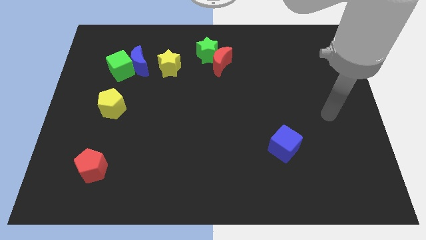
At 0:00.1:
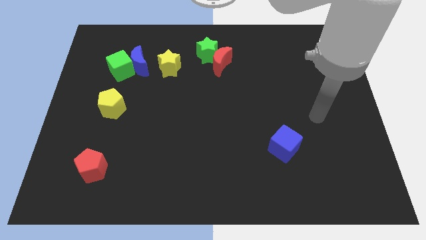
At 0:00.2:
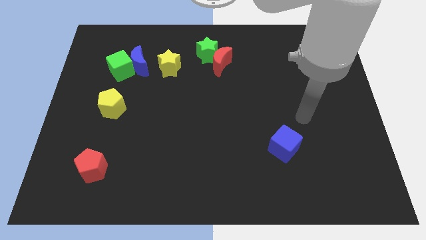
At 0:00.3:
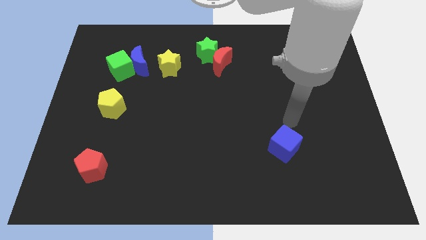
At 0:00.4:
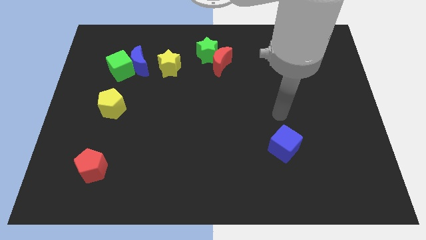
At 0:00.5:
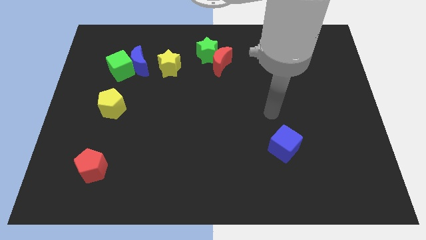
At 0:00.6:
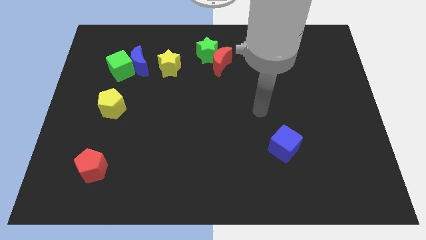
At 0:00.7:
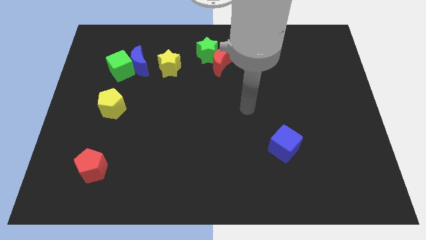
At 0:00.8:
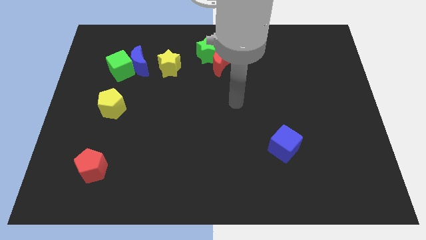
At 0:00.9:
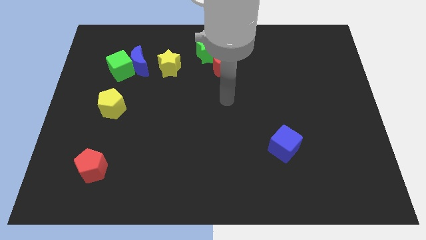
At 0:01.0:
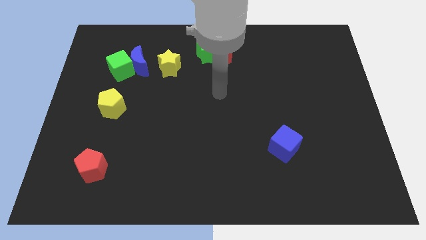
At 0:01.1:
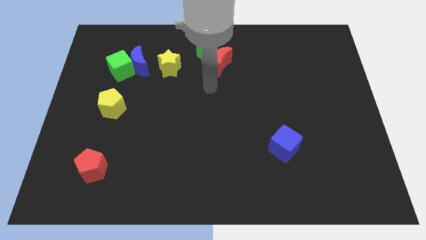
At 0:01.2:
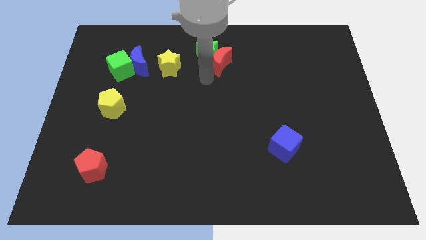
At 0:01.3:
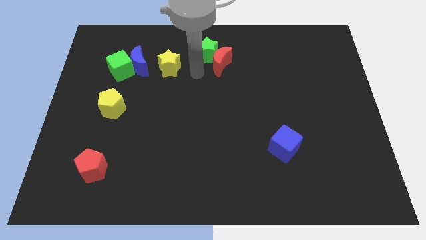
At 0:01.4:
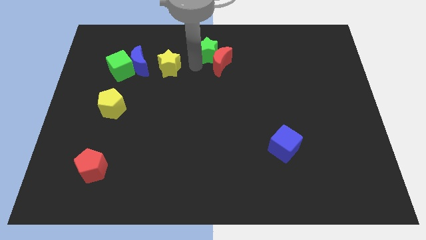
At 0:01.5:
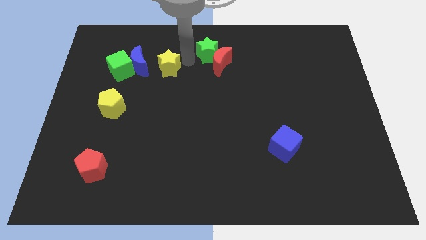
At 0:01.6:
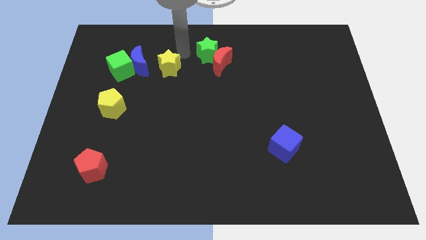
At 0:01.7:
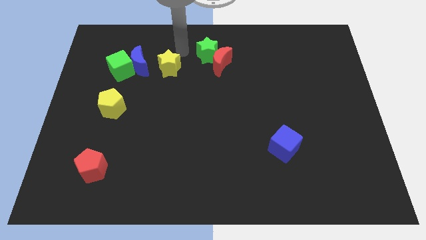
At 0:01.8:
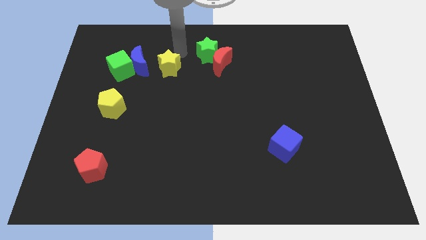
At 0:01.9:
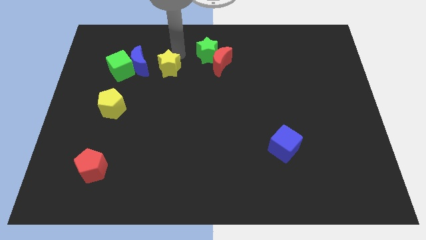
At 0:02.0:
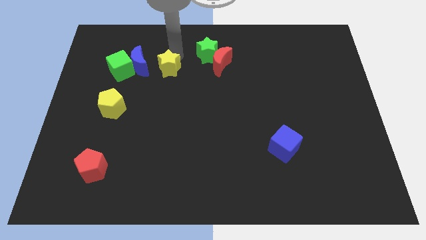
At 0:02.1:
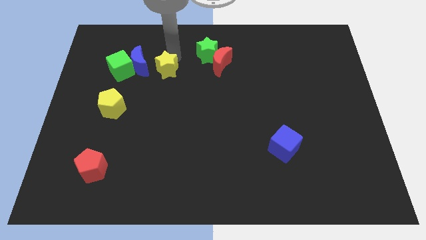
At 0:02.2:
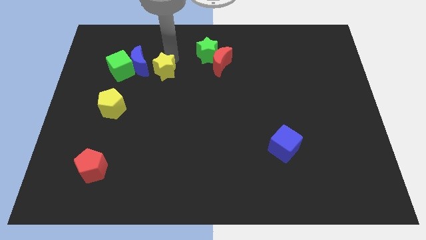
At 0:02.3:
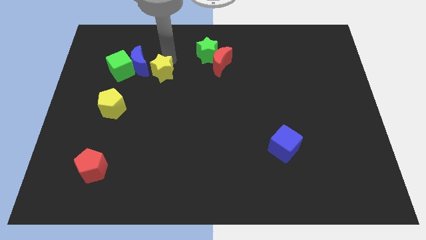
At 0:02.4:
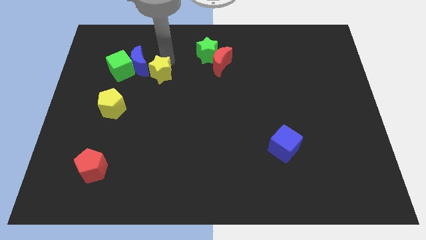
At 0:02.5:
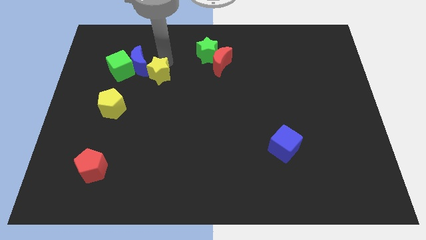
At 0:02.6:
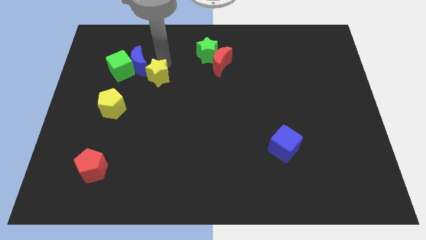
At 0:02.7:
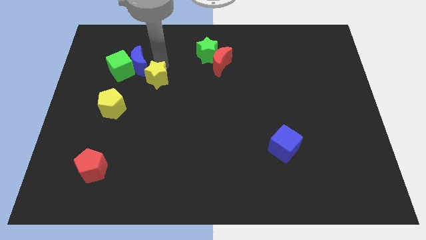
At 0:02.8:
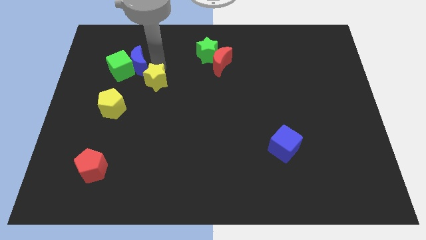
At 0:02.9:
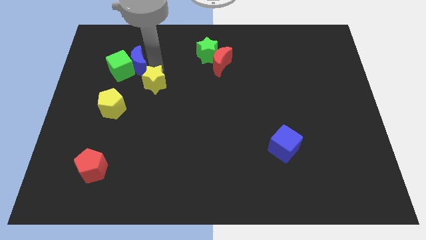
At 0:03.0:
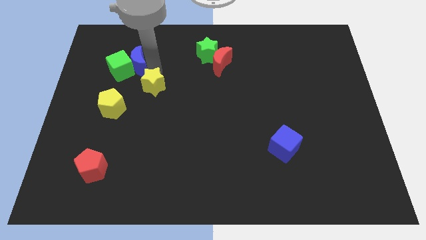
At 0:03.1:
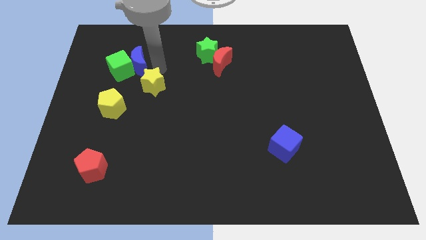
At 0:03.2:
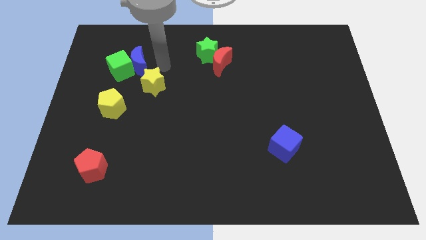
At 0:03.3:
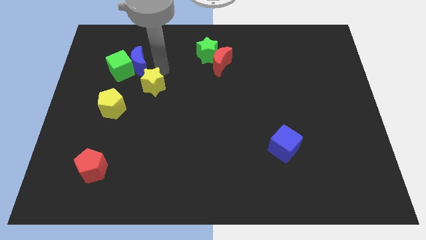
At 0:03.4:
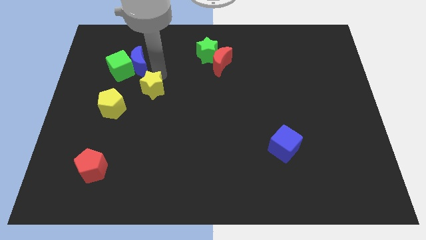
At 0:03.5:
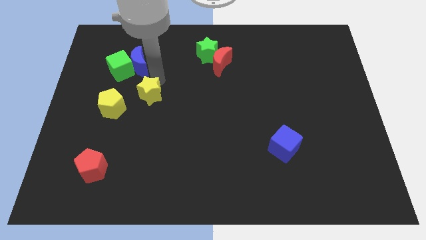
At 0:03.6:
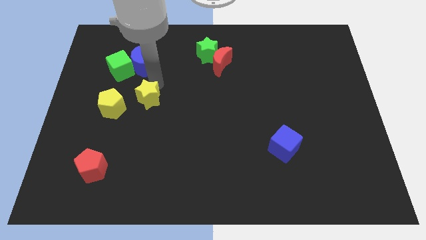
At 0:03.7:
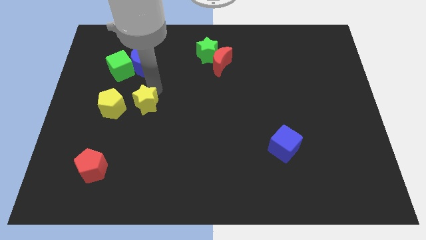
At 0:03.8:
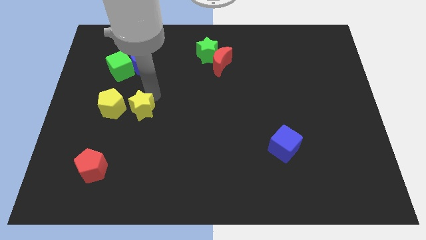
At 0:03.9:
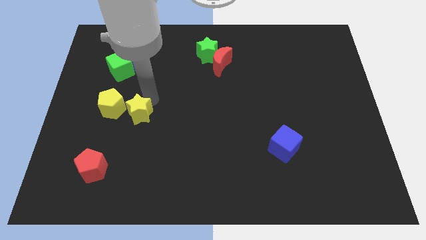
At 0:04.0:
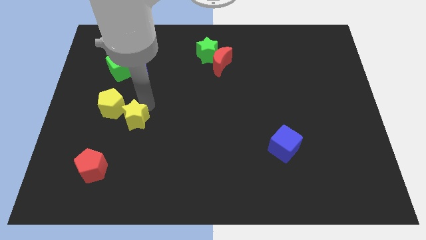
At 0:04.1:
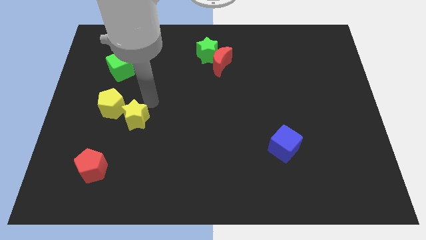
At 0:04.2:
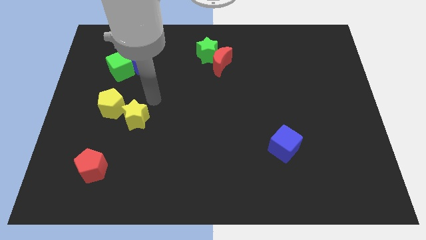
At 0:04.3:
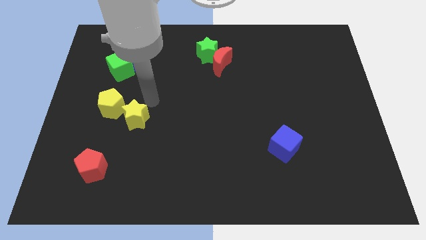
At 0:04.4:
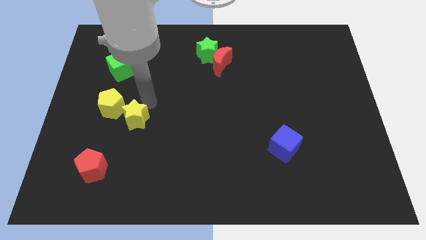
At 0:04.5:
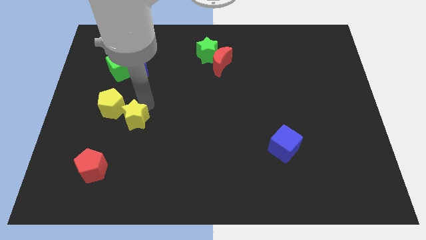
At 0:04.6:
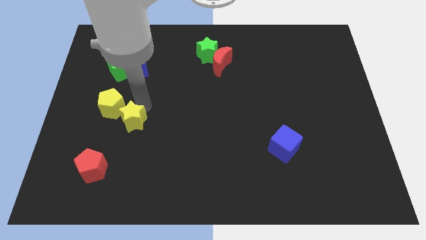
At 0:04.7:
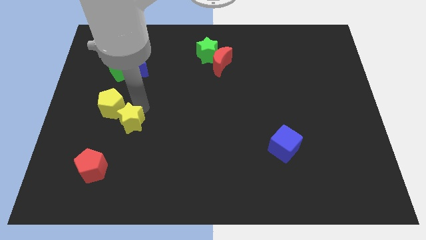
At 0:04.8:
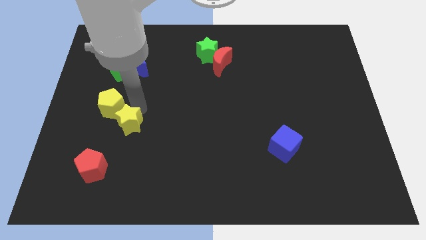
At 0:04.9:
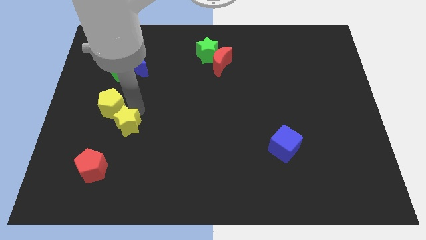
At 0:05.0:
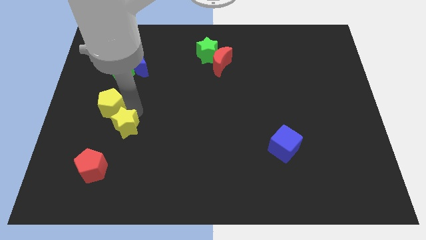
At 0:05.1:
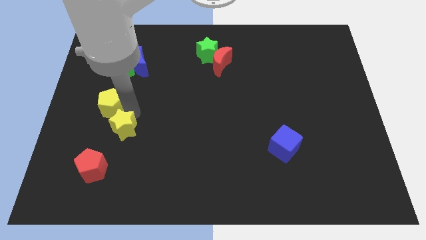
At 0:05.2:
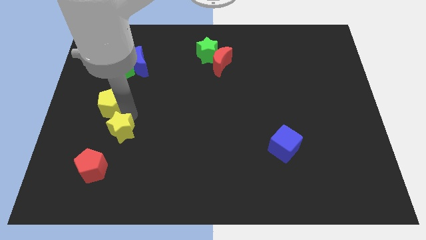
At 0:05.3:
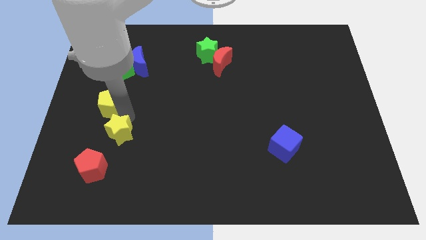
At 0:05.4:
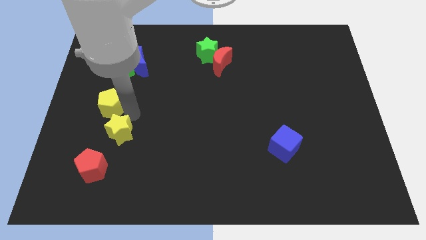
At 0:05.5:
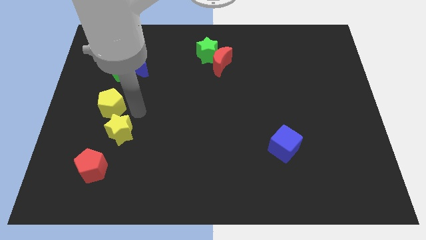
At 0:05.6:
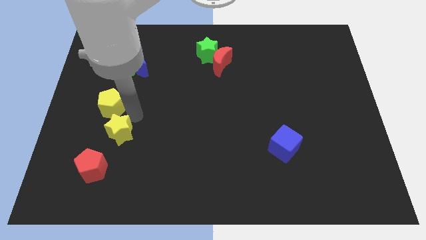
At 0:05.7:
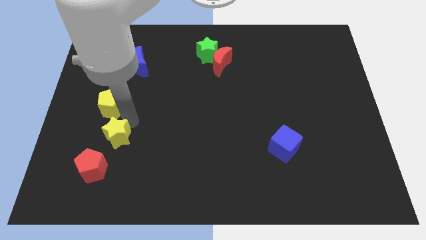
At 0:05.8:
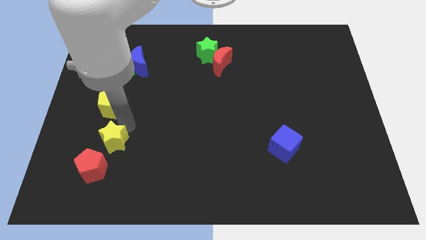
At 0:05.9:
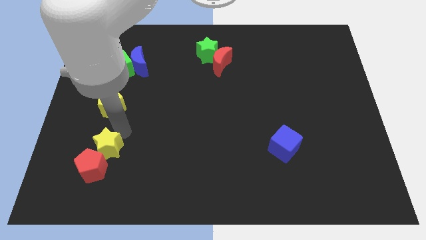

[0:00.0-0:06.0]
push the yellow star towards the red pentagon
